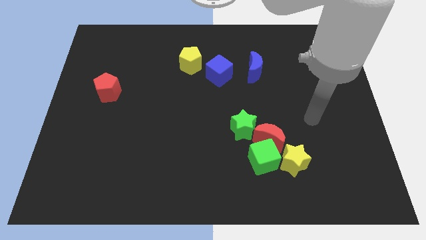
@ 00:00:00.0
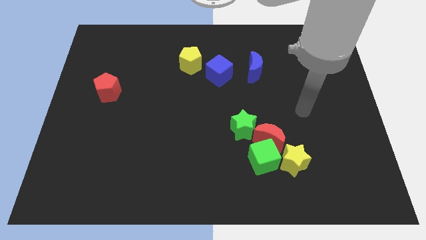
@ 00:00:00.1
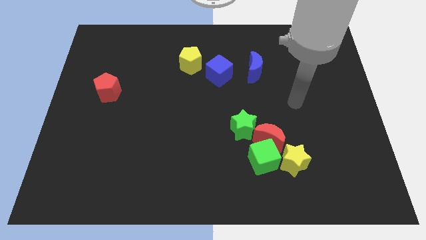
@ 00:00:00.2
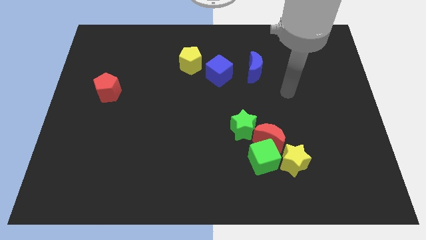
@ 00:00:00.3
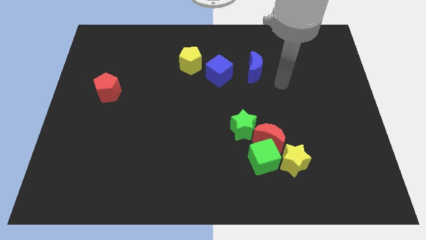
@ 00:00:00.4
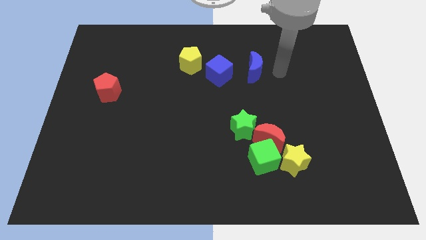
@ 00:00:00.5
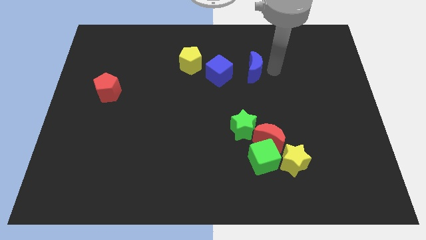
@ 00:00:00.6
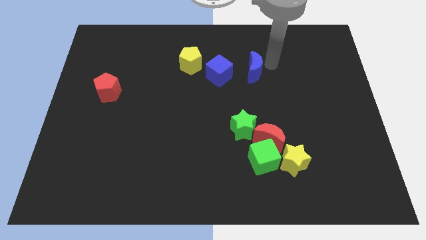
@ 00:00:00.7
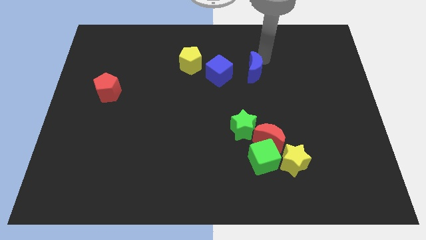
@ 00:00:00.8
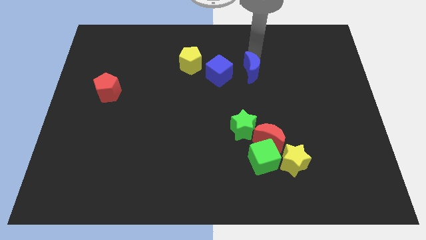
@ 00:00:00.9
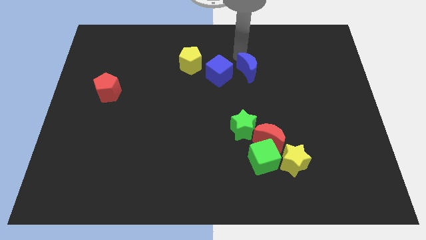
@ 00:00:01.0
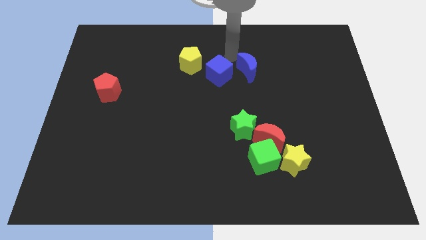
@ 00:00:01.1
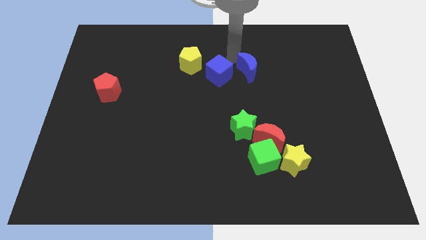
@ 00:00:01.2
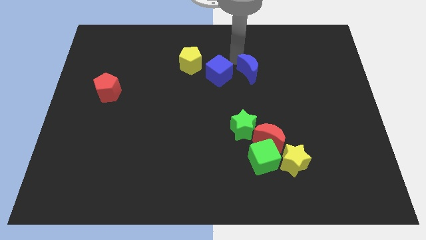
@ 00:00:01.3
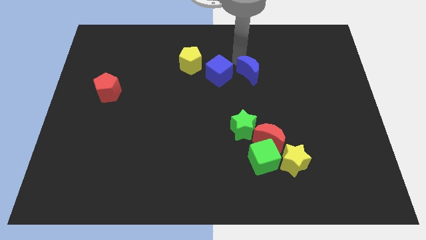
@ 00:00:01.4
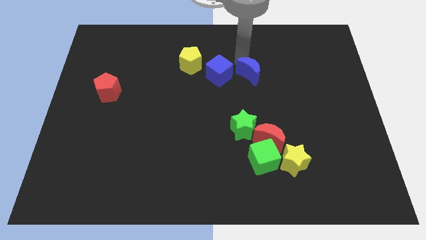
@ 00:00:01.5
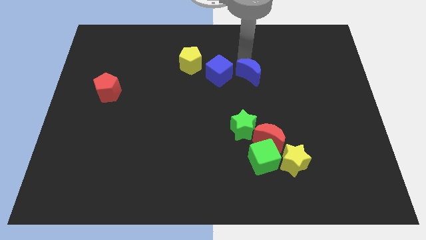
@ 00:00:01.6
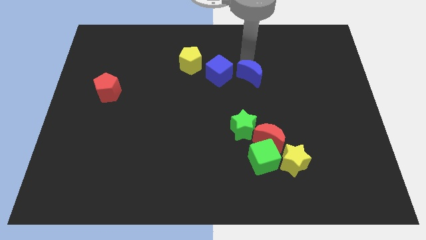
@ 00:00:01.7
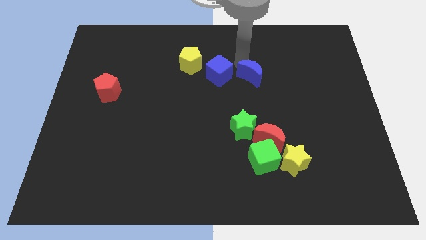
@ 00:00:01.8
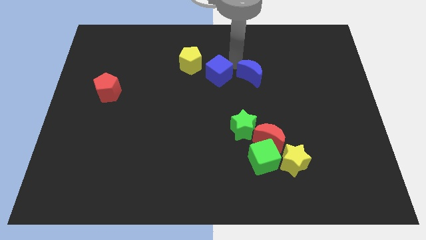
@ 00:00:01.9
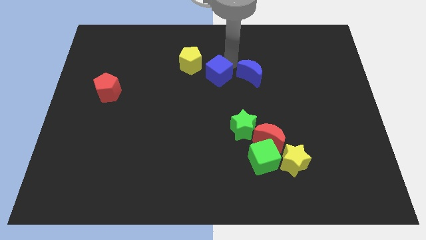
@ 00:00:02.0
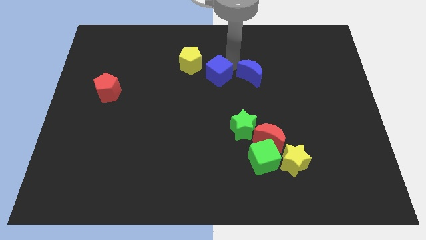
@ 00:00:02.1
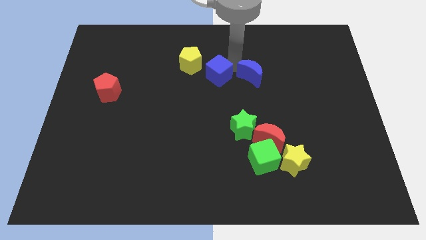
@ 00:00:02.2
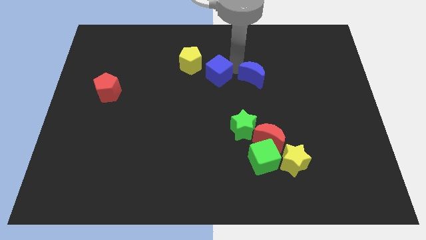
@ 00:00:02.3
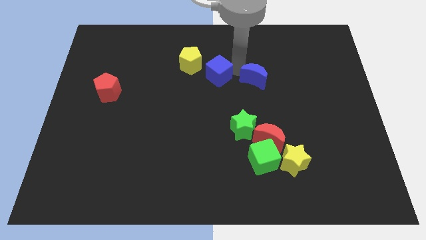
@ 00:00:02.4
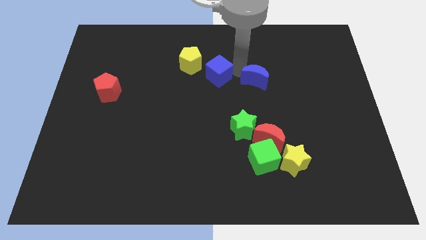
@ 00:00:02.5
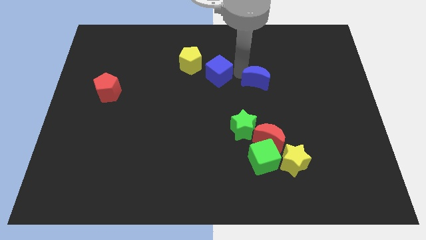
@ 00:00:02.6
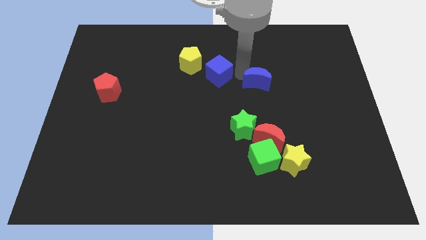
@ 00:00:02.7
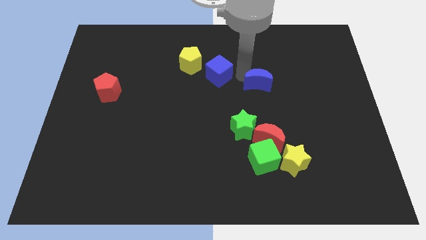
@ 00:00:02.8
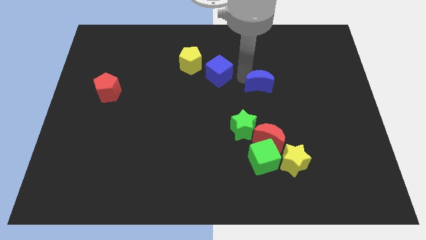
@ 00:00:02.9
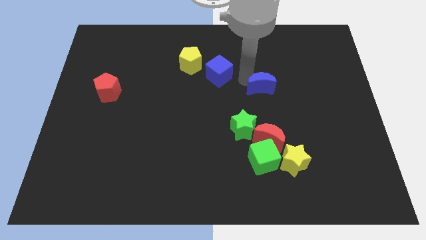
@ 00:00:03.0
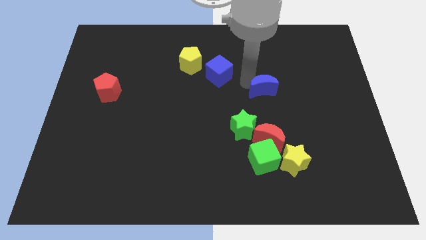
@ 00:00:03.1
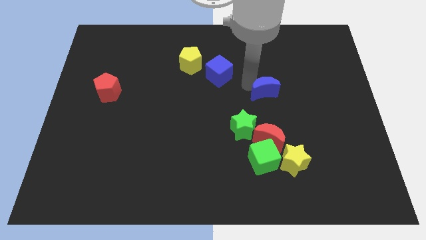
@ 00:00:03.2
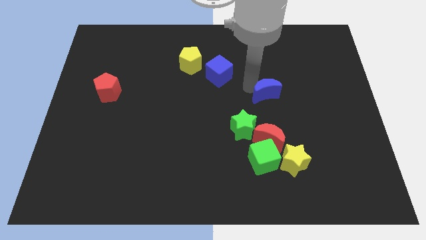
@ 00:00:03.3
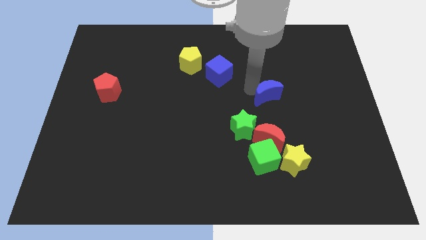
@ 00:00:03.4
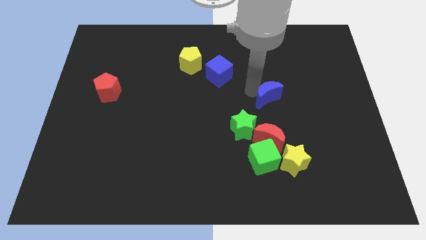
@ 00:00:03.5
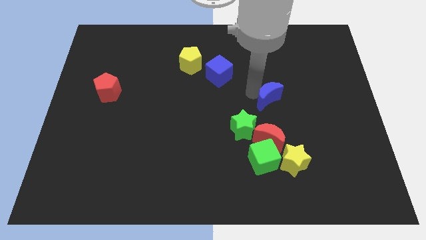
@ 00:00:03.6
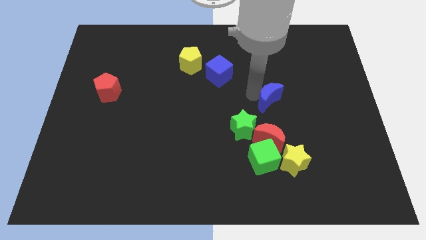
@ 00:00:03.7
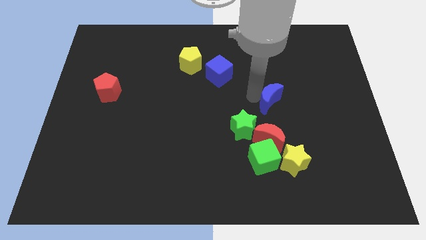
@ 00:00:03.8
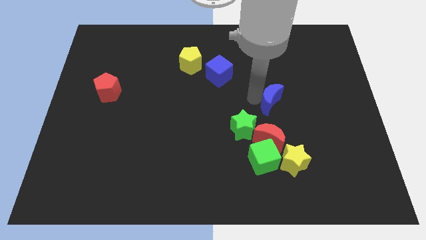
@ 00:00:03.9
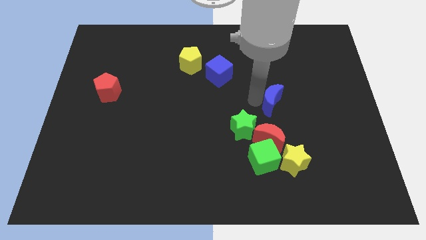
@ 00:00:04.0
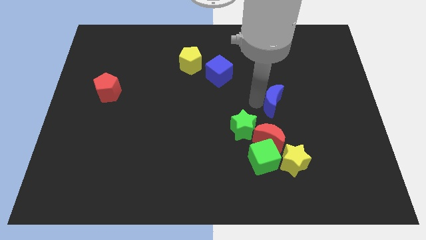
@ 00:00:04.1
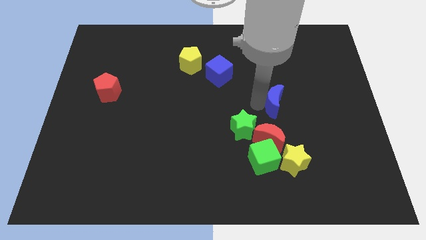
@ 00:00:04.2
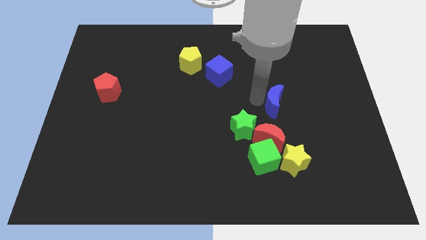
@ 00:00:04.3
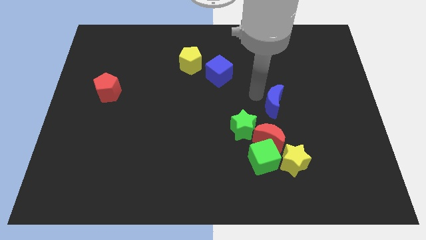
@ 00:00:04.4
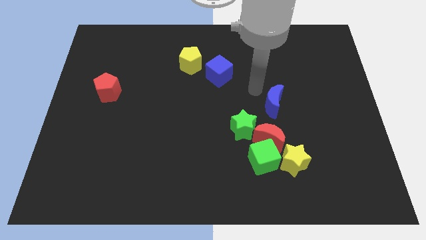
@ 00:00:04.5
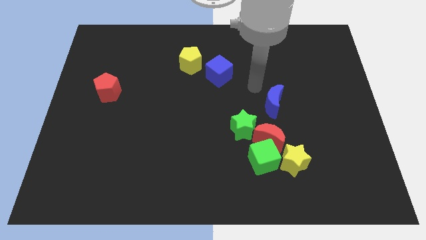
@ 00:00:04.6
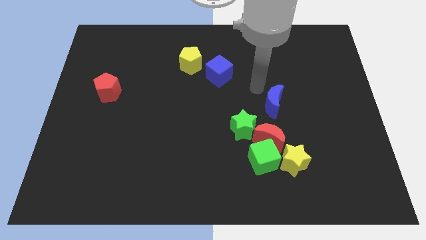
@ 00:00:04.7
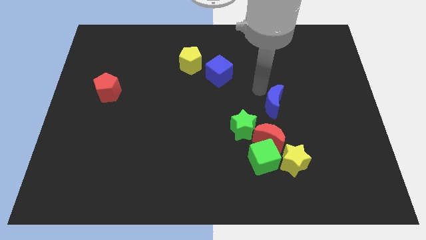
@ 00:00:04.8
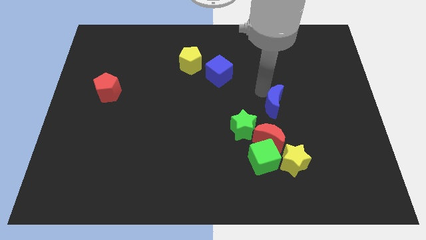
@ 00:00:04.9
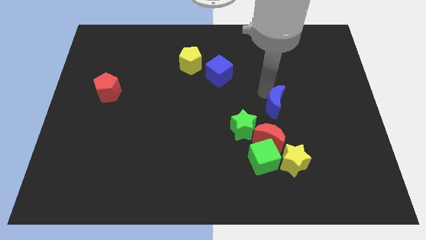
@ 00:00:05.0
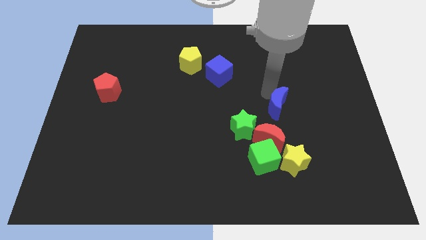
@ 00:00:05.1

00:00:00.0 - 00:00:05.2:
put the blue moon diagonally up and to the right of the red moon

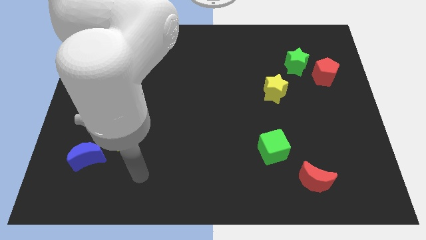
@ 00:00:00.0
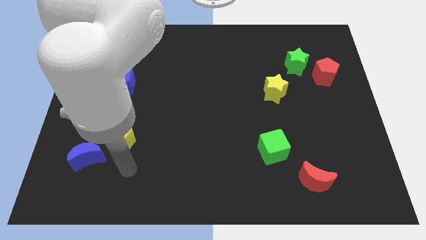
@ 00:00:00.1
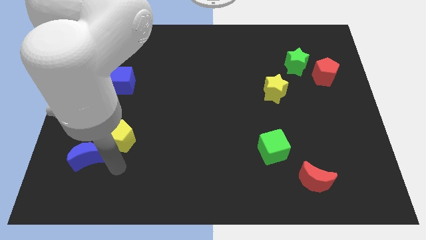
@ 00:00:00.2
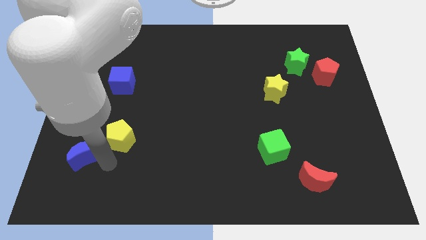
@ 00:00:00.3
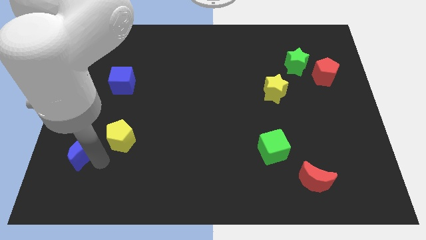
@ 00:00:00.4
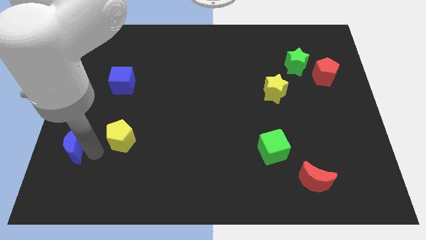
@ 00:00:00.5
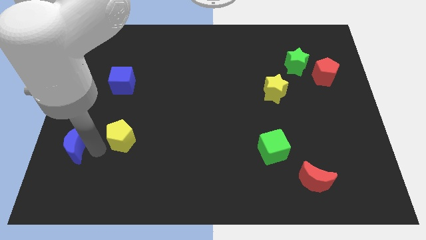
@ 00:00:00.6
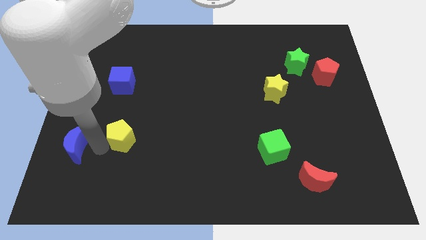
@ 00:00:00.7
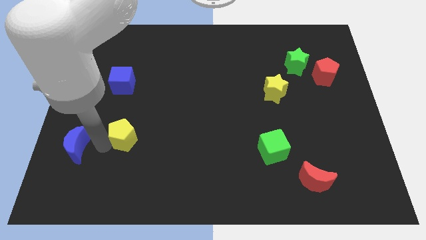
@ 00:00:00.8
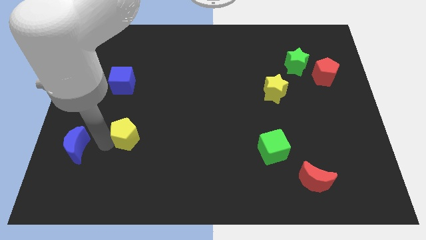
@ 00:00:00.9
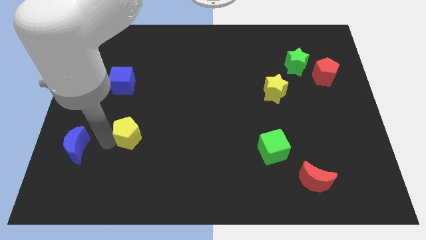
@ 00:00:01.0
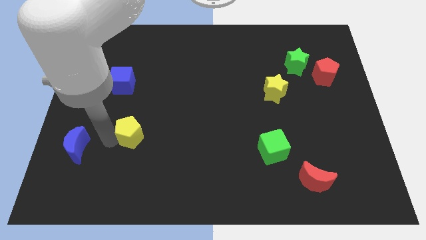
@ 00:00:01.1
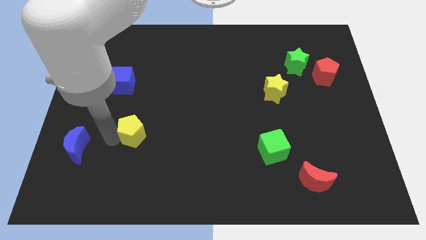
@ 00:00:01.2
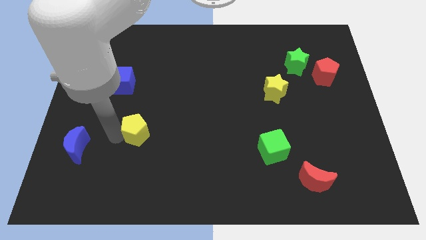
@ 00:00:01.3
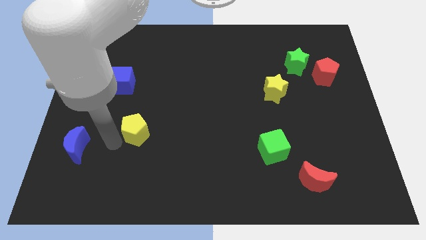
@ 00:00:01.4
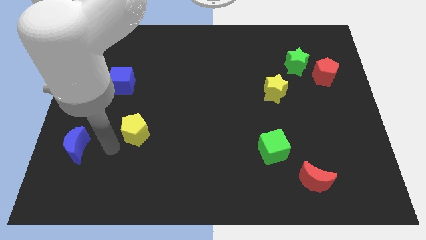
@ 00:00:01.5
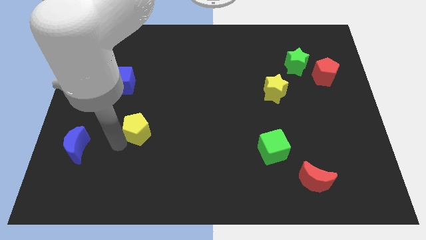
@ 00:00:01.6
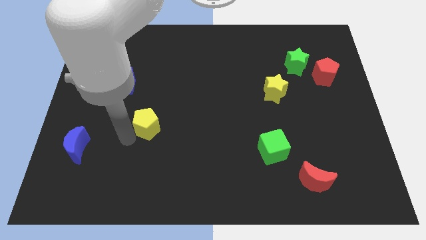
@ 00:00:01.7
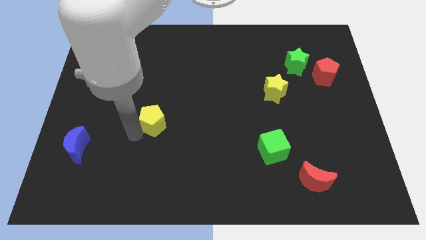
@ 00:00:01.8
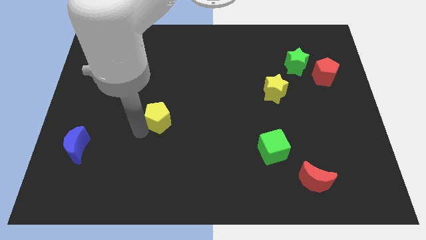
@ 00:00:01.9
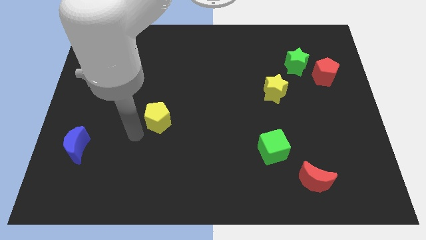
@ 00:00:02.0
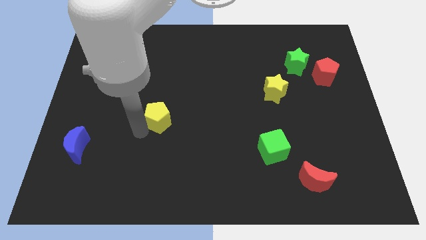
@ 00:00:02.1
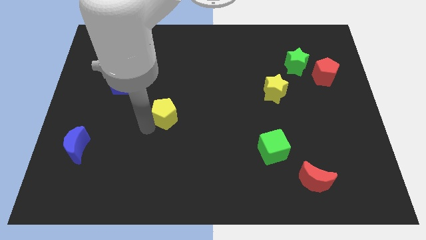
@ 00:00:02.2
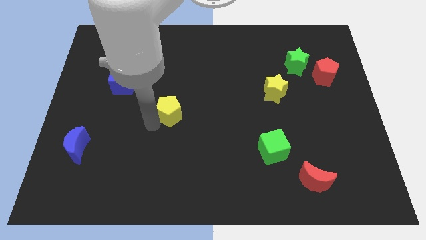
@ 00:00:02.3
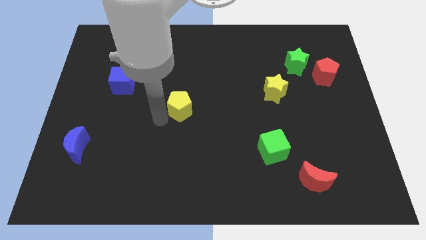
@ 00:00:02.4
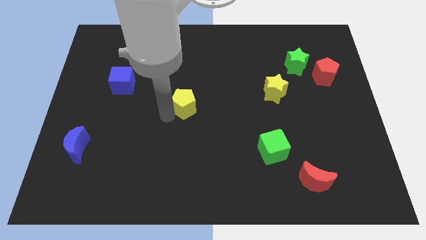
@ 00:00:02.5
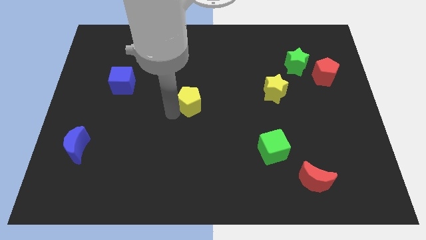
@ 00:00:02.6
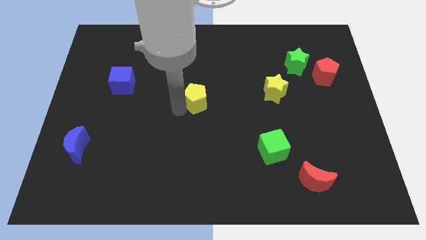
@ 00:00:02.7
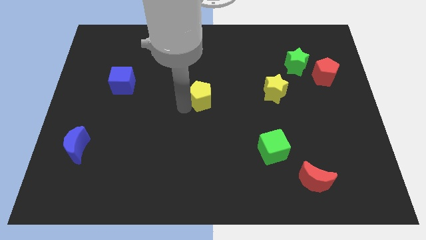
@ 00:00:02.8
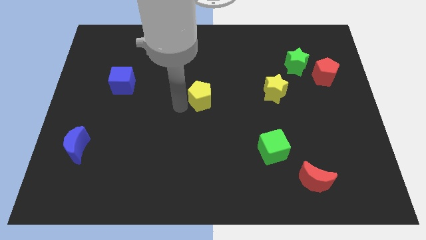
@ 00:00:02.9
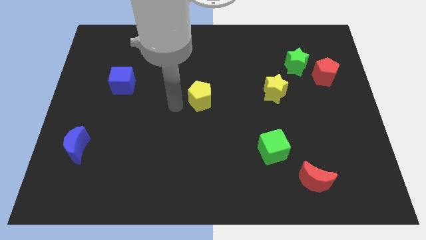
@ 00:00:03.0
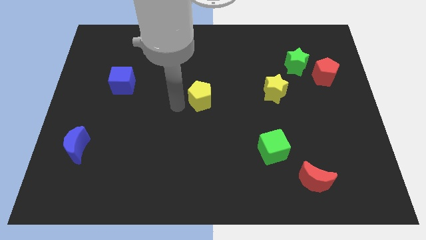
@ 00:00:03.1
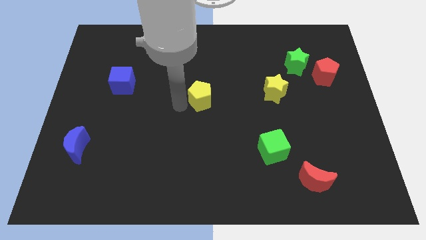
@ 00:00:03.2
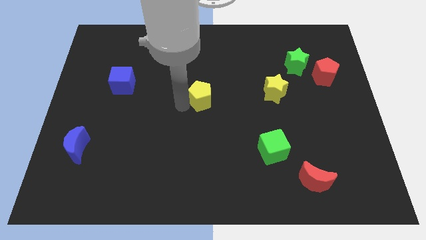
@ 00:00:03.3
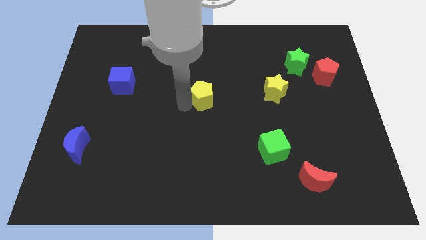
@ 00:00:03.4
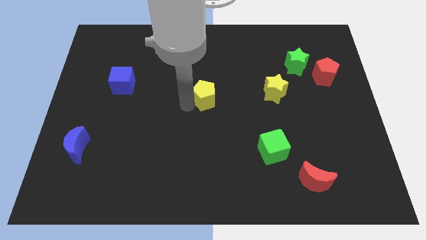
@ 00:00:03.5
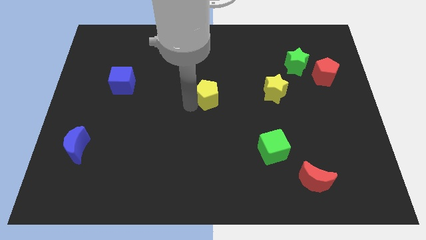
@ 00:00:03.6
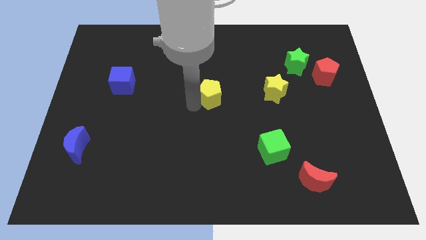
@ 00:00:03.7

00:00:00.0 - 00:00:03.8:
put the yellow pentagon to the left side of the yellow star
